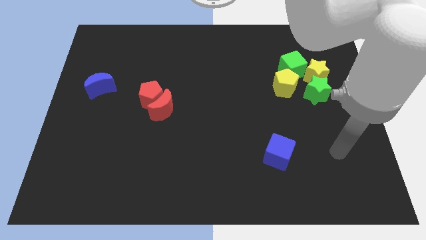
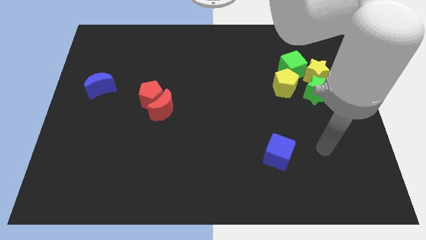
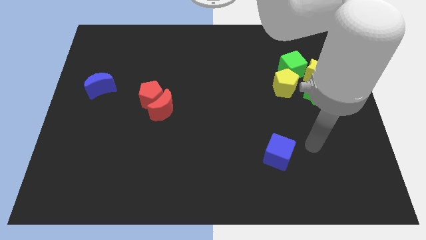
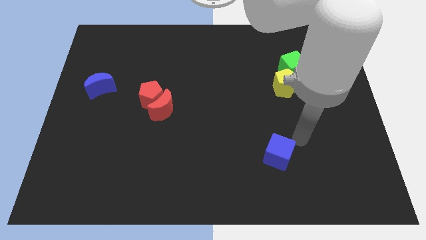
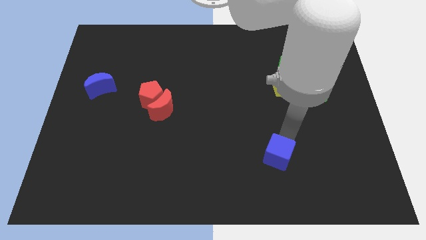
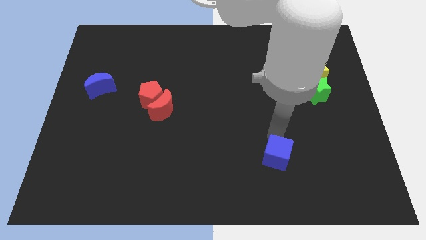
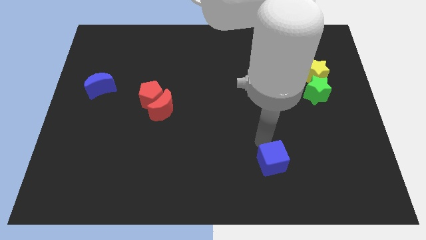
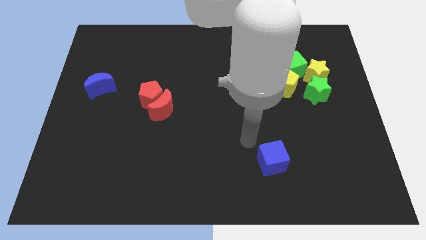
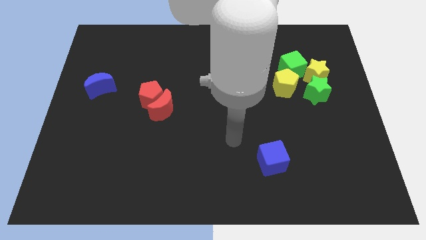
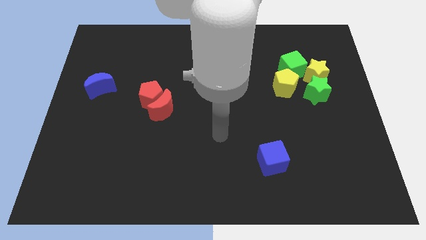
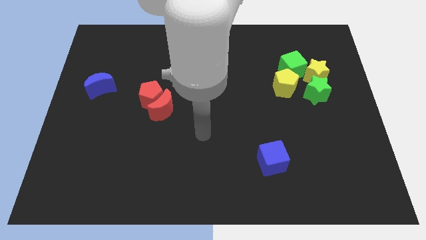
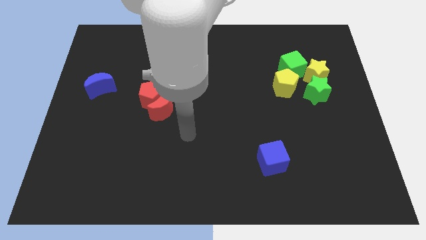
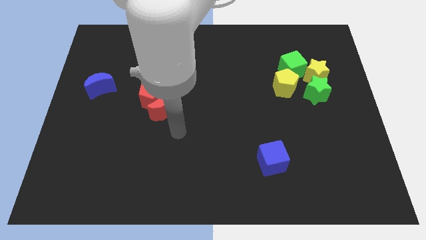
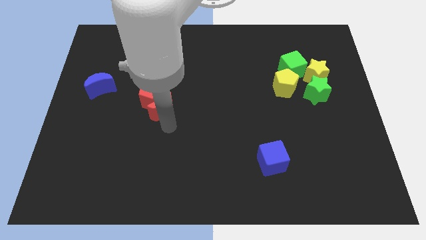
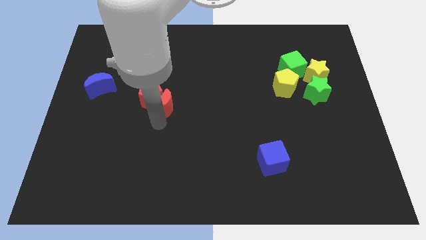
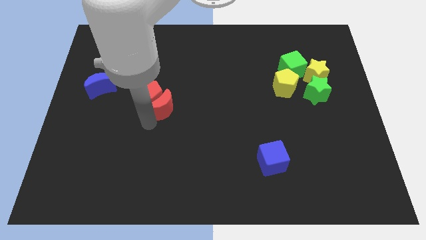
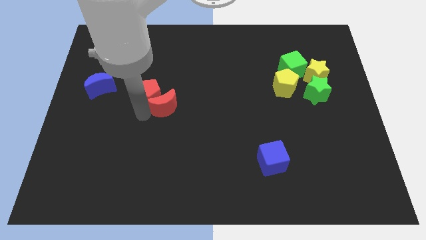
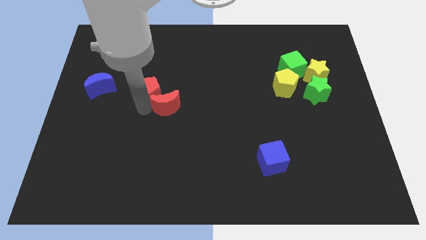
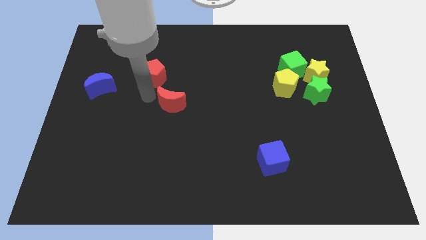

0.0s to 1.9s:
pull the red moon apart from the red pentagon

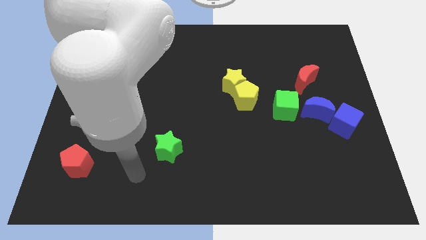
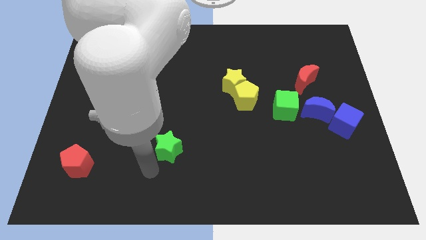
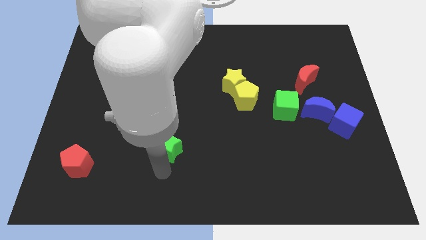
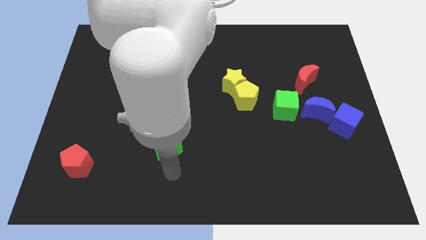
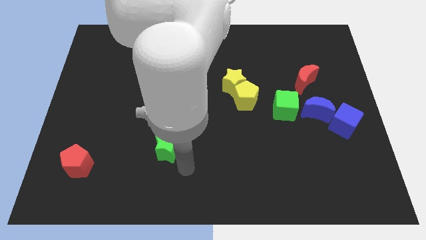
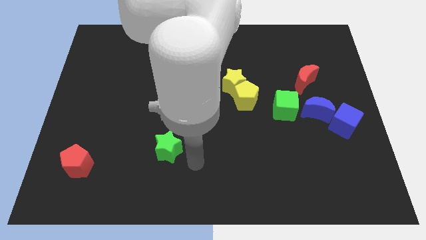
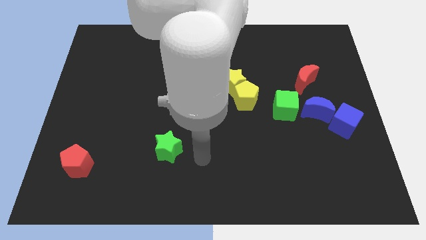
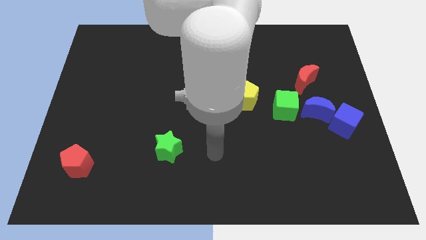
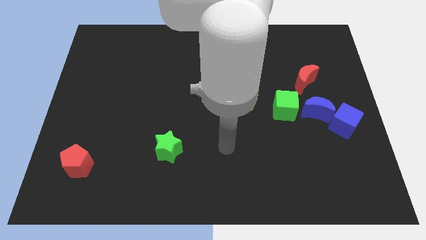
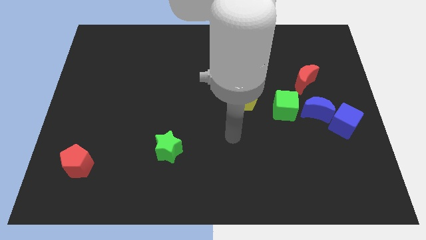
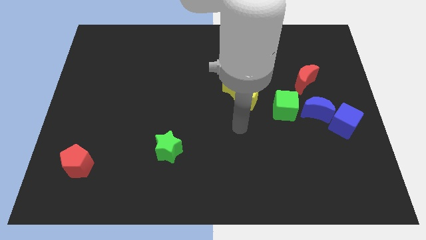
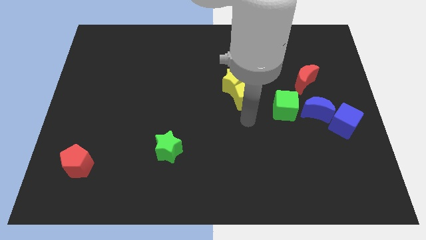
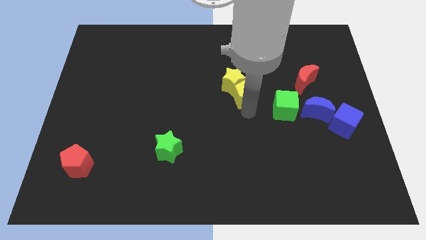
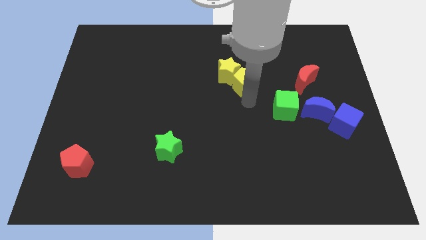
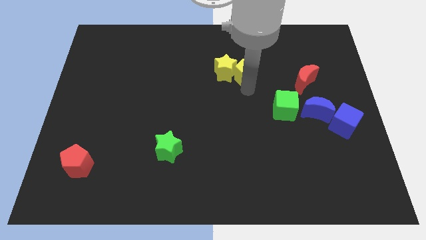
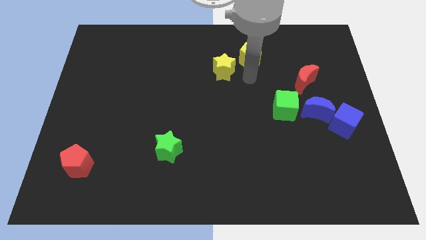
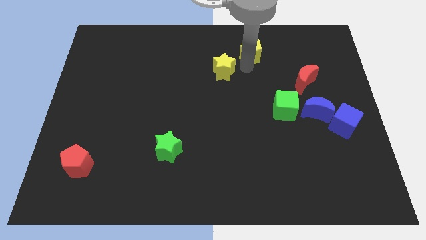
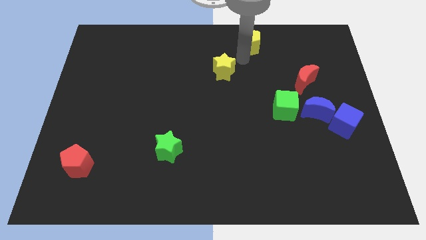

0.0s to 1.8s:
move the yellow star away from the yellow pentagon

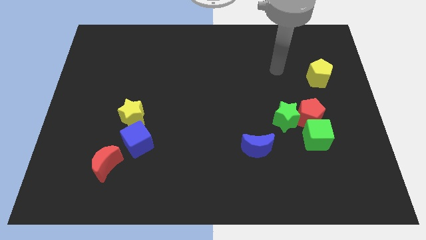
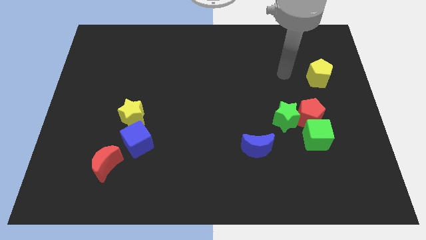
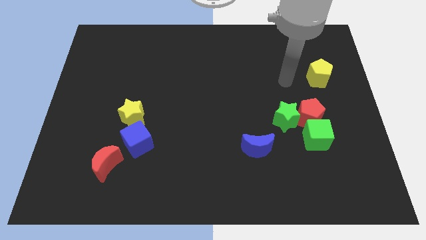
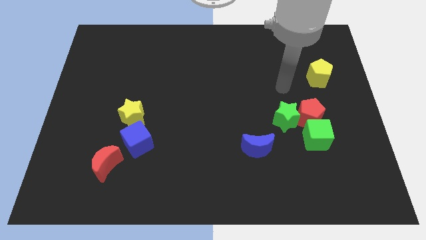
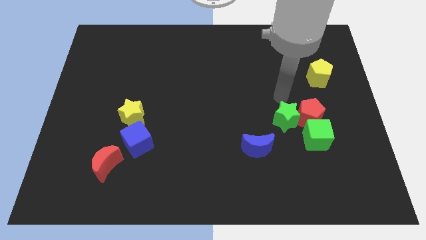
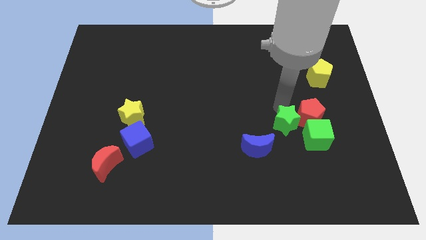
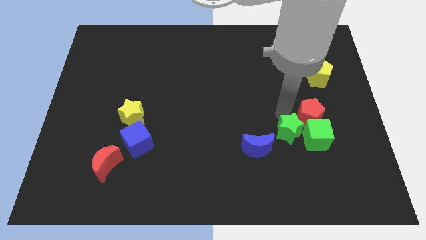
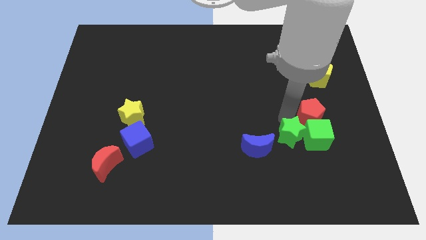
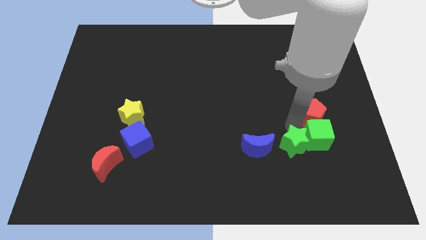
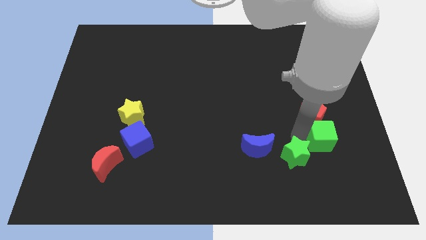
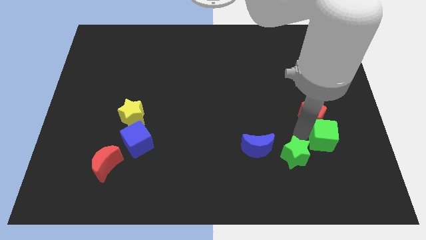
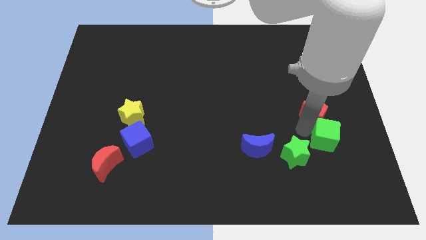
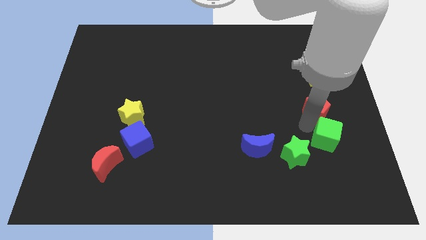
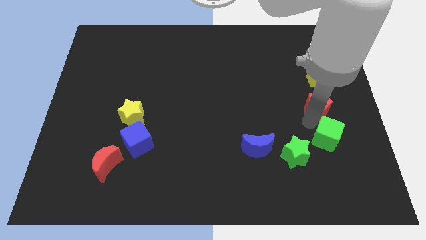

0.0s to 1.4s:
pull the red pentagon apart from the green star and green cube

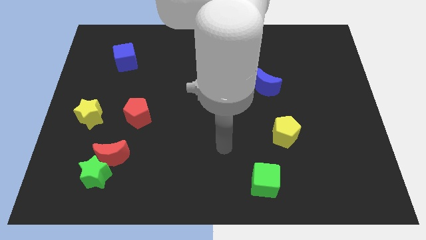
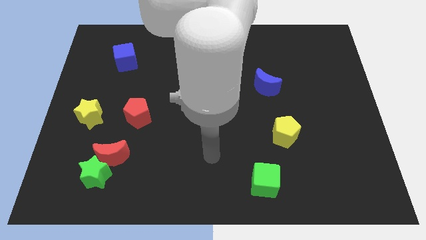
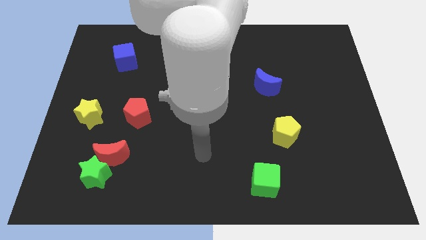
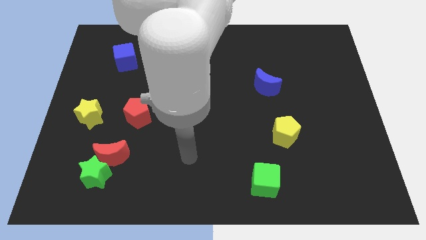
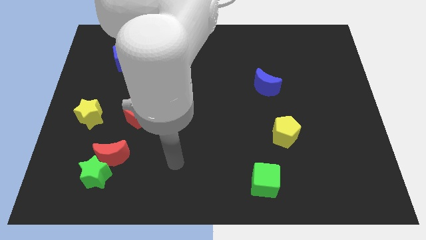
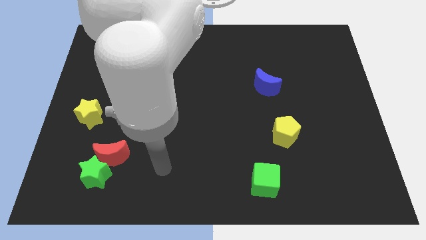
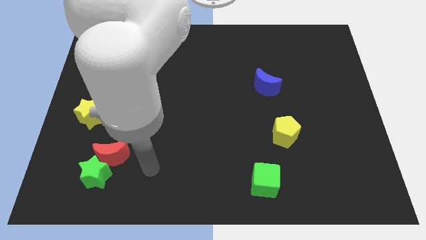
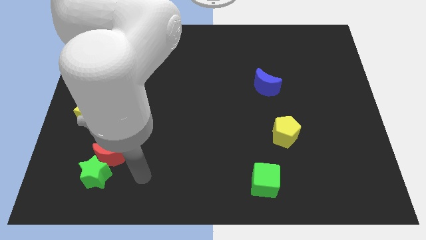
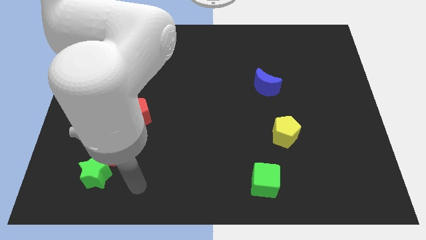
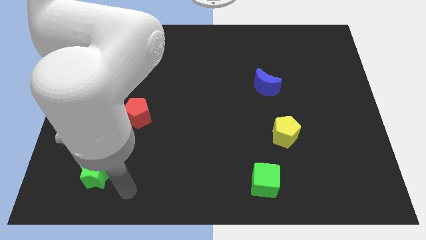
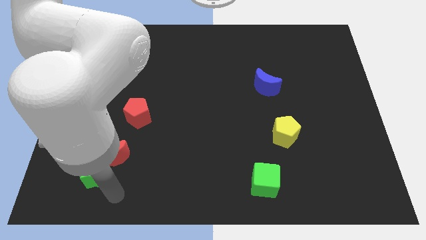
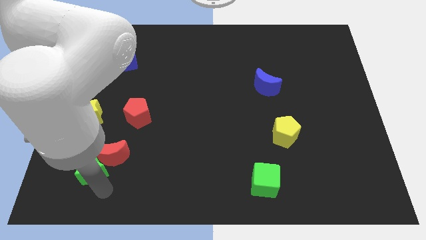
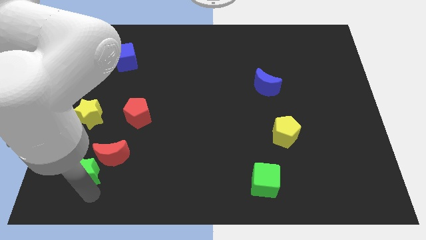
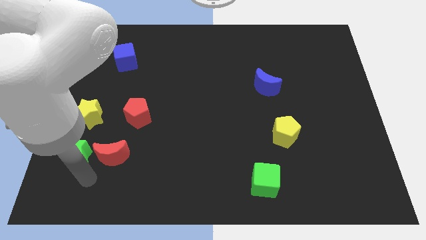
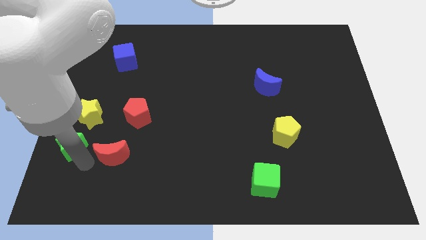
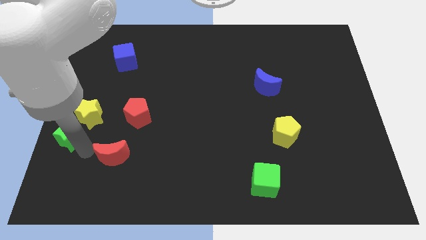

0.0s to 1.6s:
pull the red moon apart from the green star

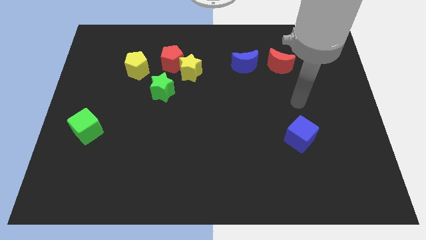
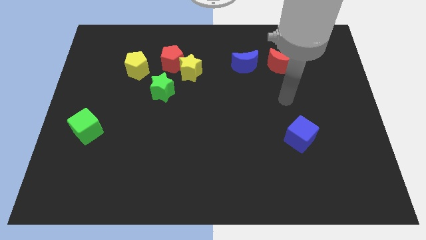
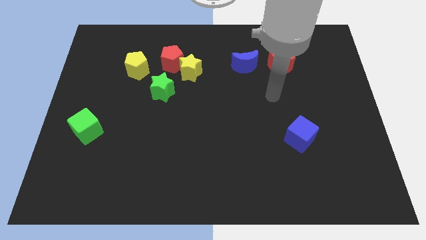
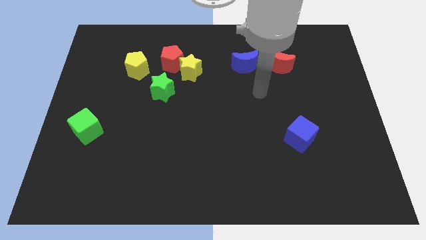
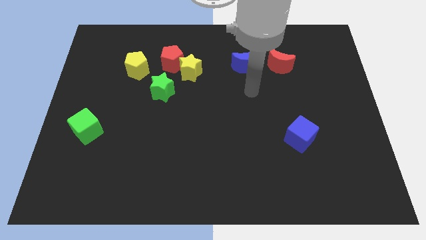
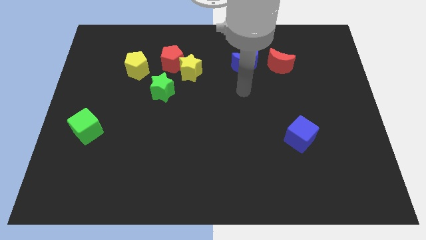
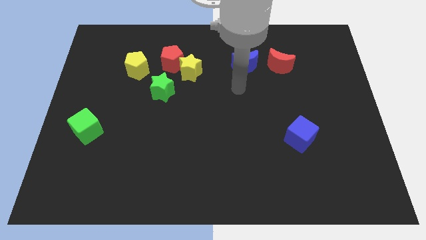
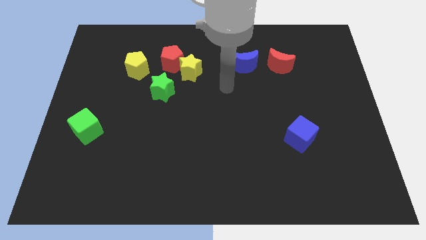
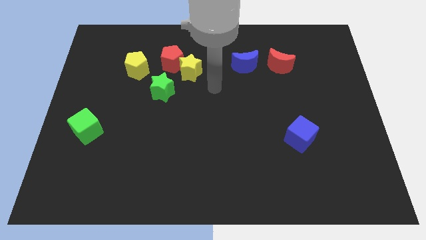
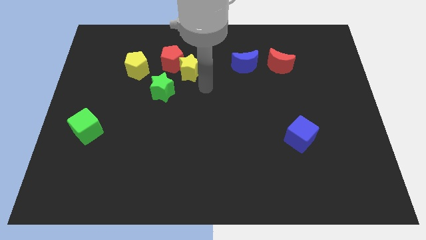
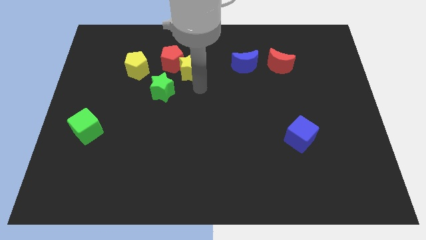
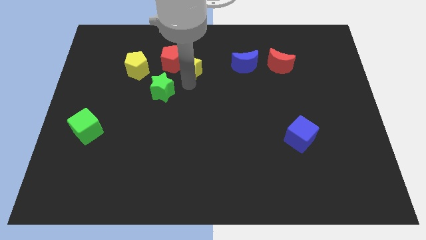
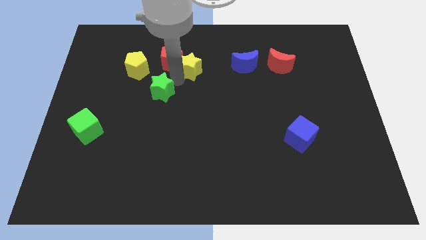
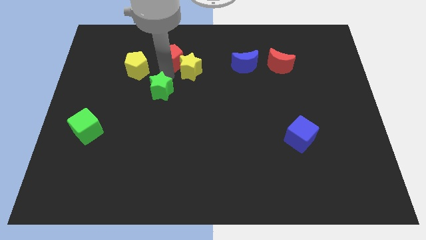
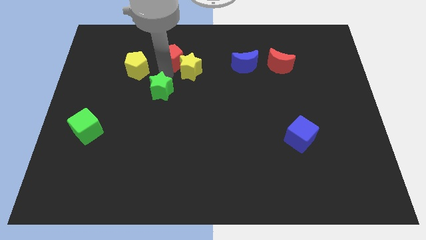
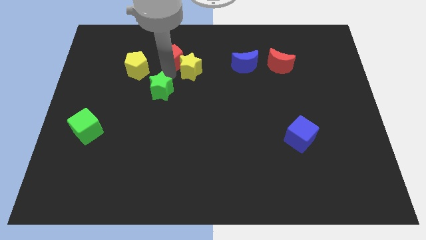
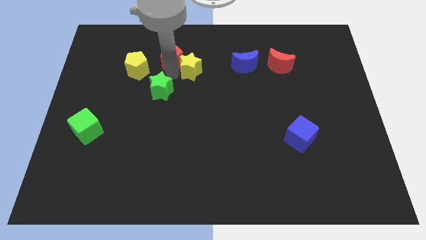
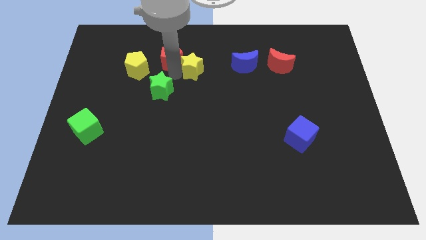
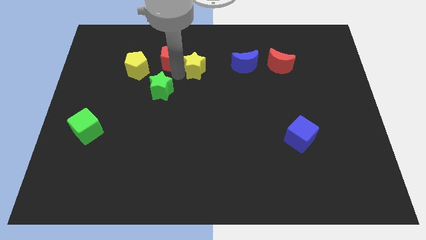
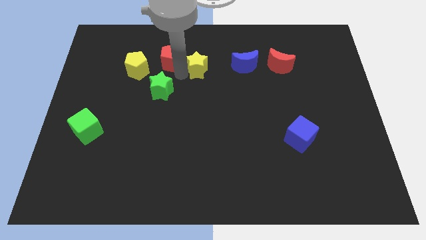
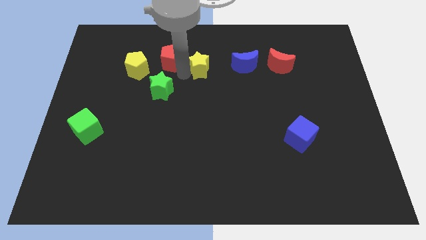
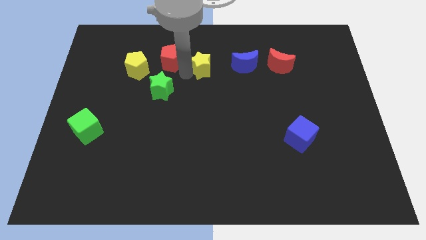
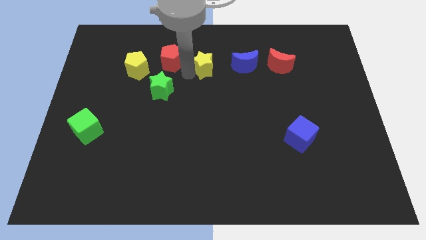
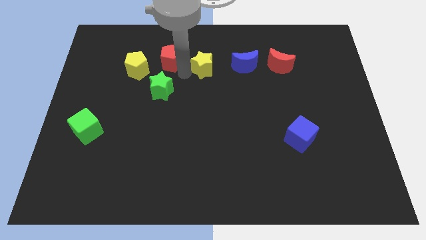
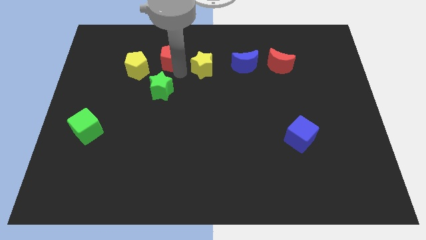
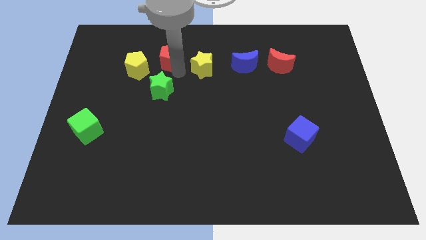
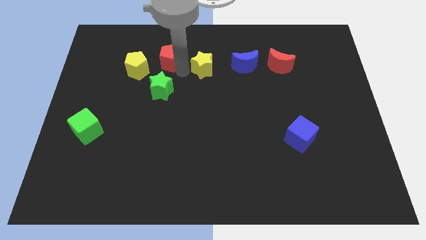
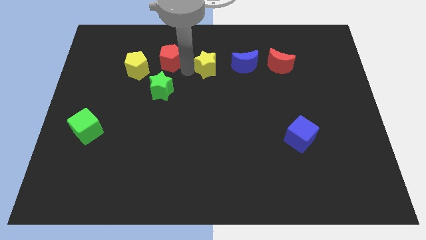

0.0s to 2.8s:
separate the yellow star from the red pentagon and green star
